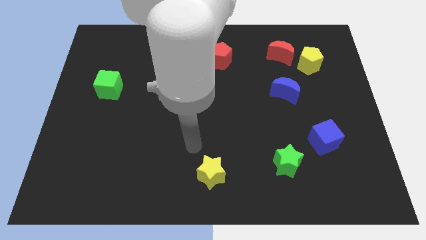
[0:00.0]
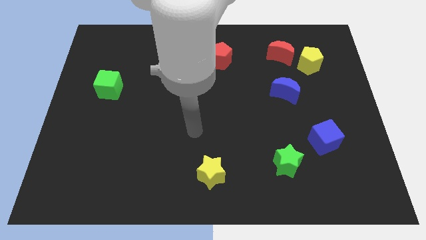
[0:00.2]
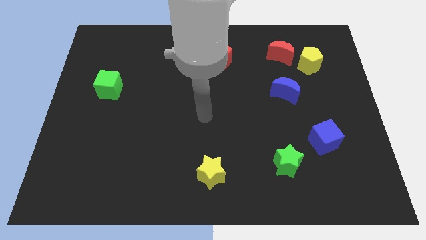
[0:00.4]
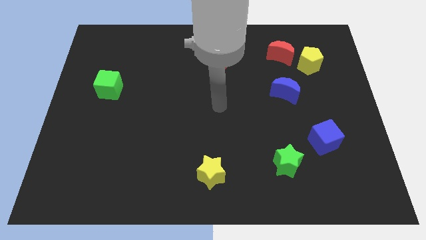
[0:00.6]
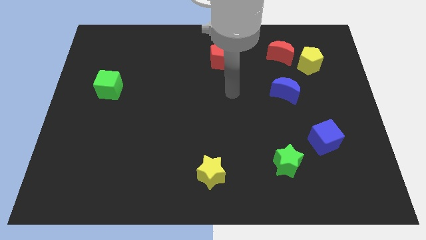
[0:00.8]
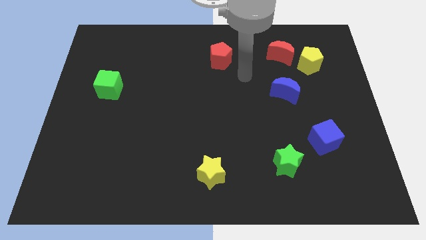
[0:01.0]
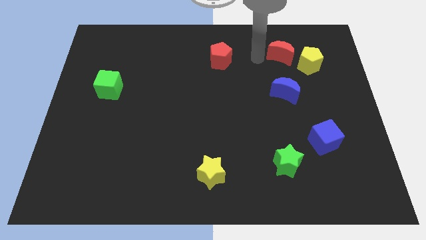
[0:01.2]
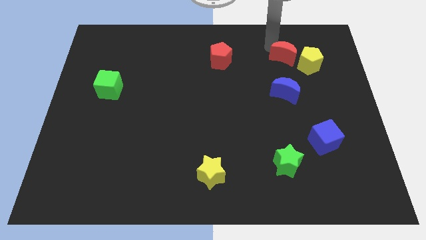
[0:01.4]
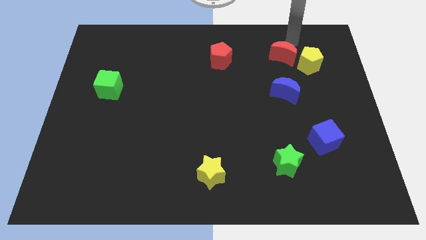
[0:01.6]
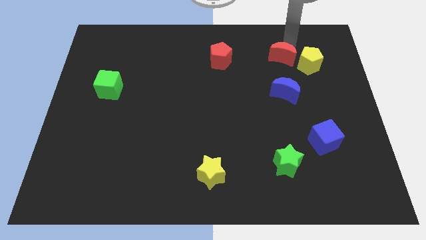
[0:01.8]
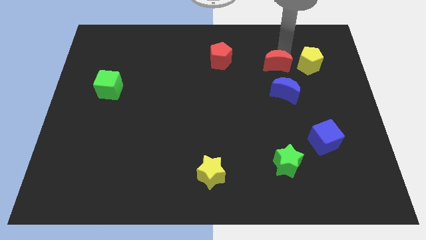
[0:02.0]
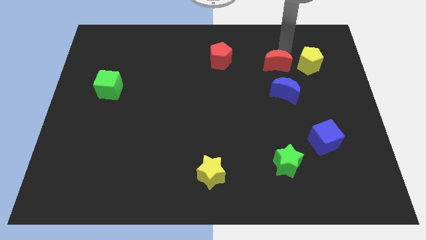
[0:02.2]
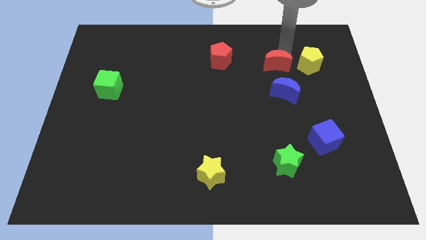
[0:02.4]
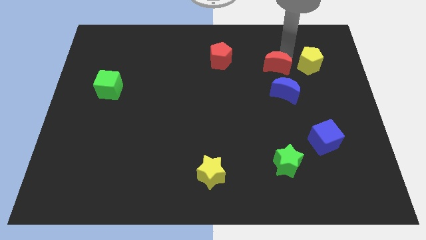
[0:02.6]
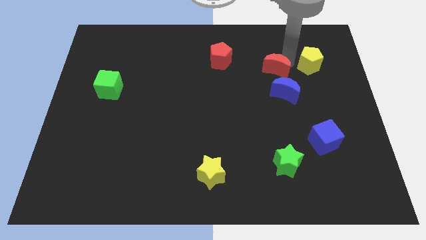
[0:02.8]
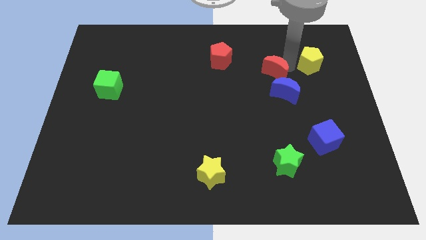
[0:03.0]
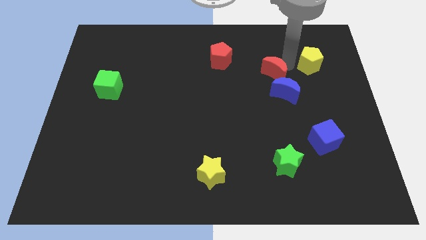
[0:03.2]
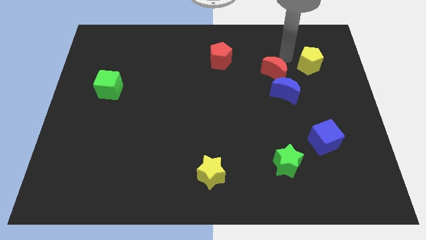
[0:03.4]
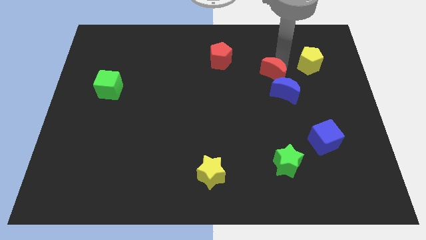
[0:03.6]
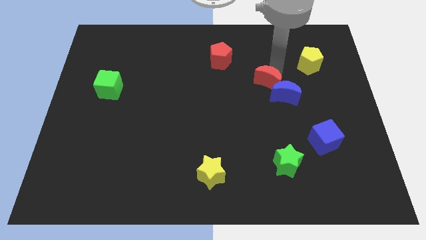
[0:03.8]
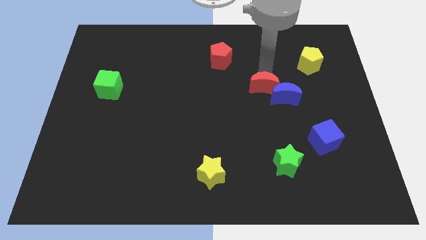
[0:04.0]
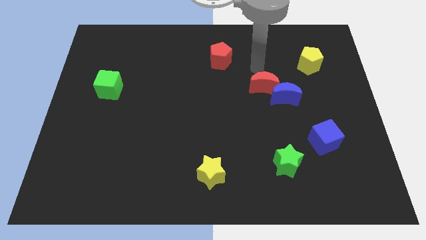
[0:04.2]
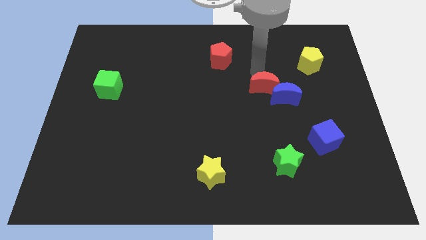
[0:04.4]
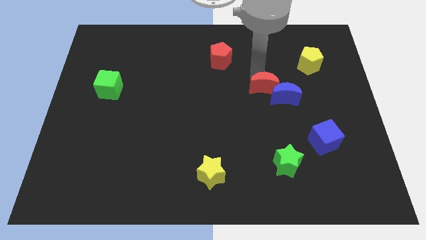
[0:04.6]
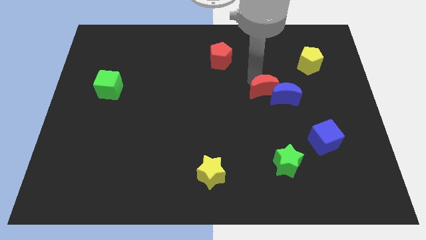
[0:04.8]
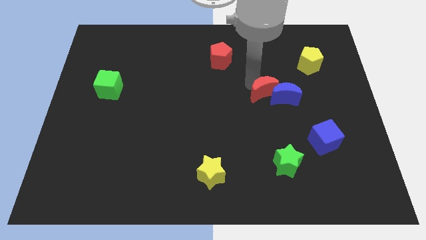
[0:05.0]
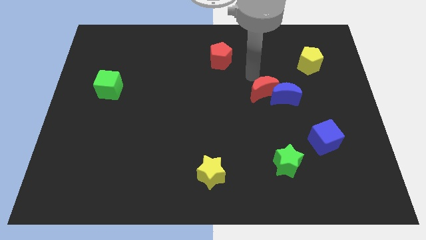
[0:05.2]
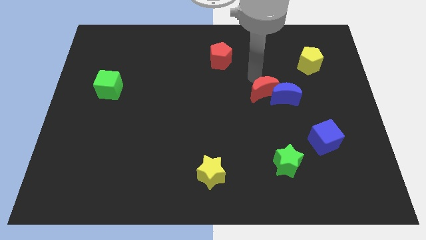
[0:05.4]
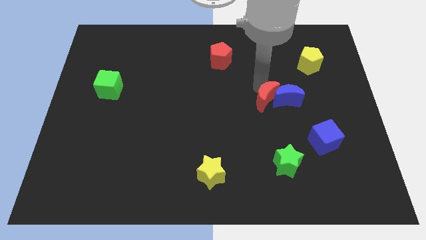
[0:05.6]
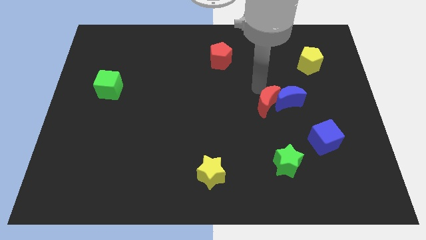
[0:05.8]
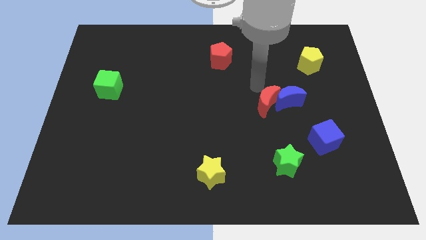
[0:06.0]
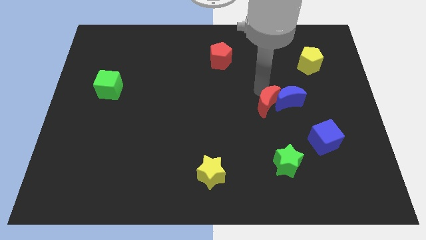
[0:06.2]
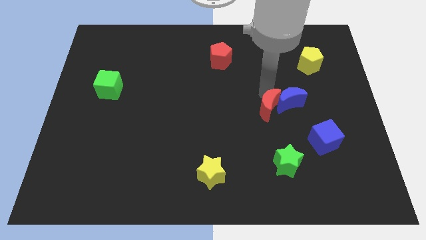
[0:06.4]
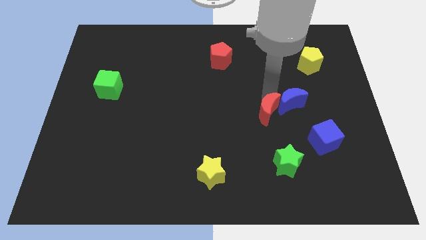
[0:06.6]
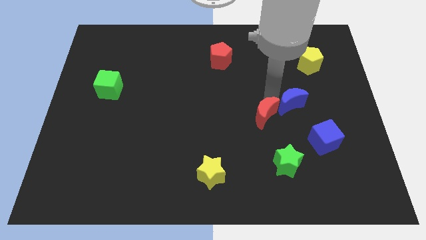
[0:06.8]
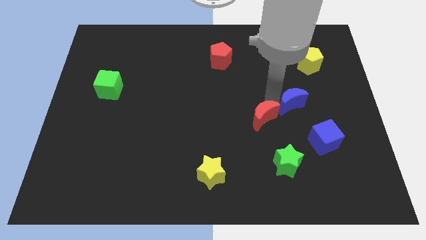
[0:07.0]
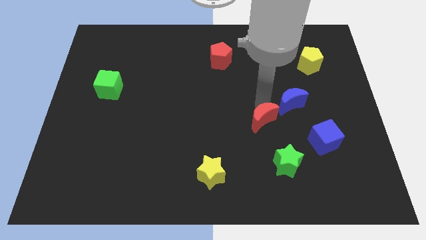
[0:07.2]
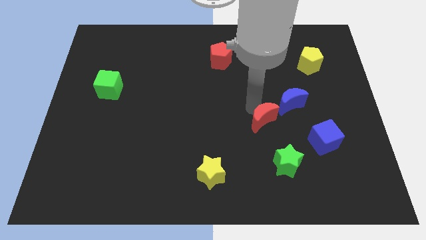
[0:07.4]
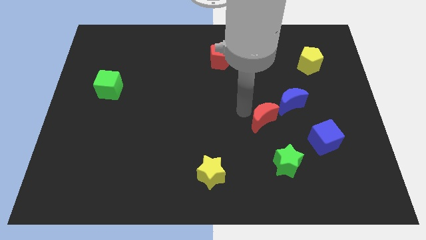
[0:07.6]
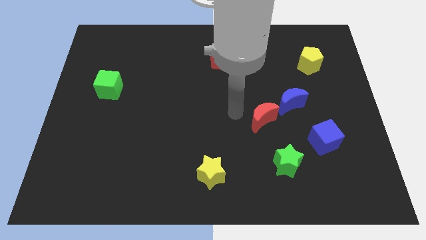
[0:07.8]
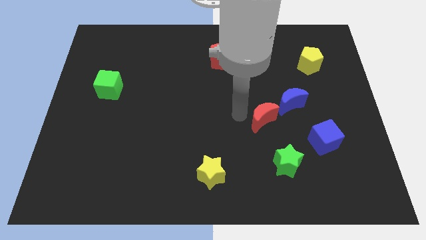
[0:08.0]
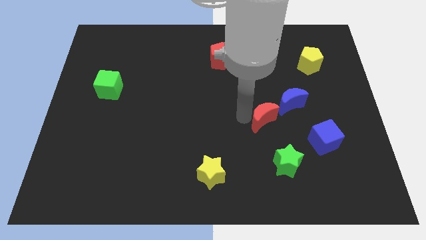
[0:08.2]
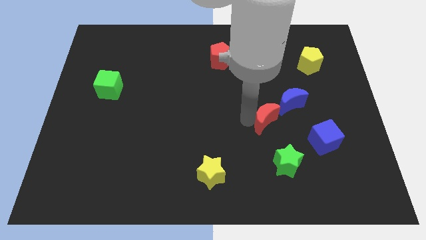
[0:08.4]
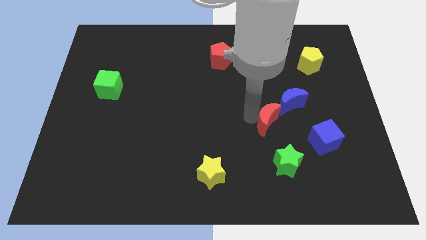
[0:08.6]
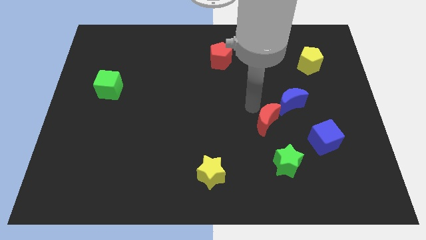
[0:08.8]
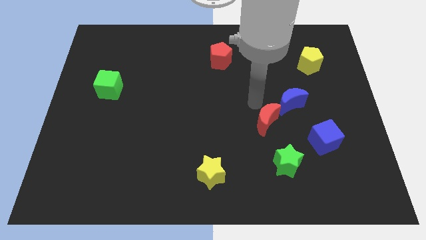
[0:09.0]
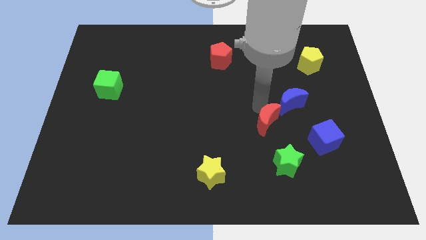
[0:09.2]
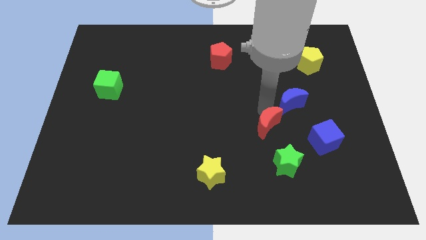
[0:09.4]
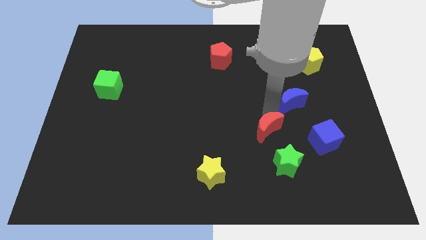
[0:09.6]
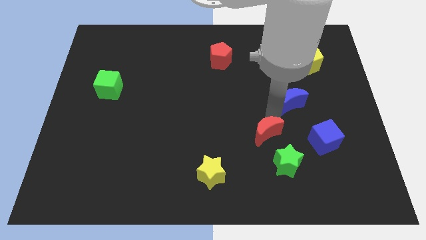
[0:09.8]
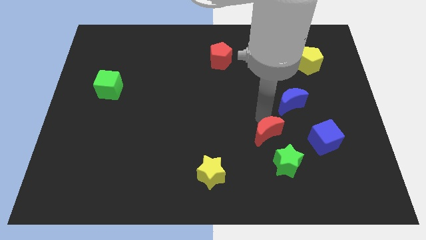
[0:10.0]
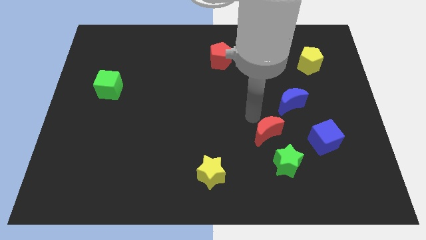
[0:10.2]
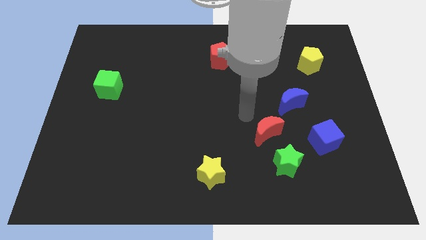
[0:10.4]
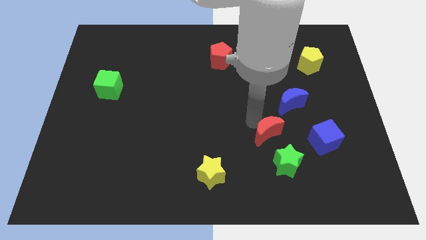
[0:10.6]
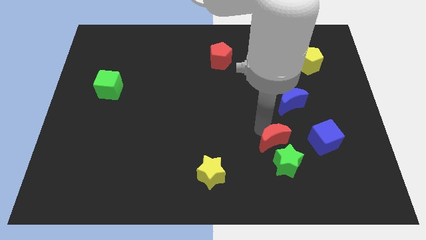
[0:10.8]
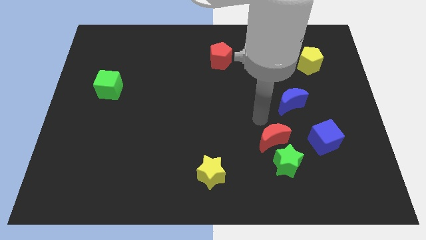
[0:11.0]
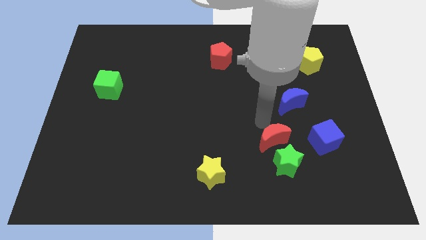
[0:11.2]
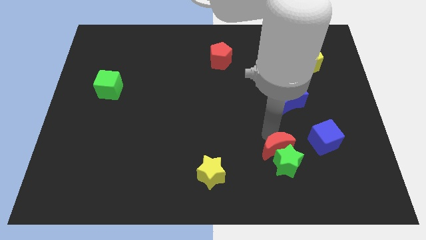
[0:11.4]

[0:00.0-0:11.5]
push the red moon towards the green star
